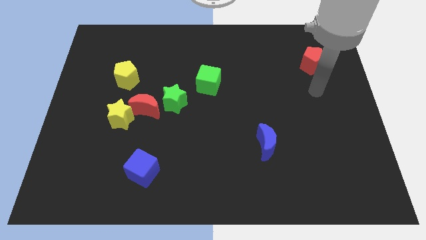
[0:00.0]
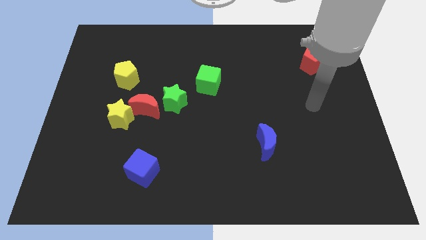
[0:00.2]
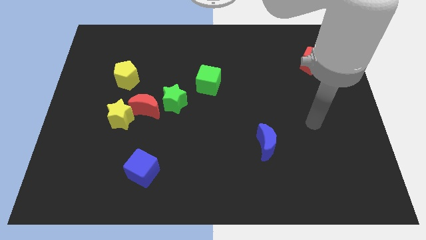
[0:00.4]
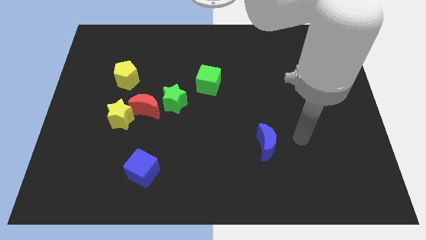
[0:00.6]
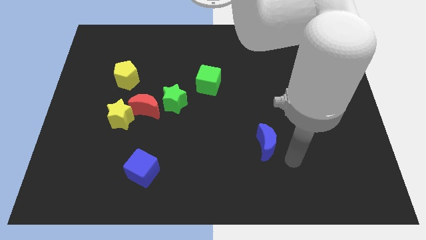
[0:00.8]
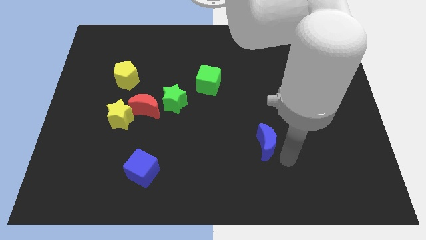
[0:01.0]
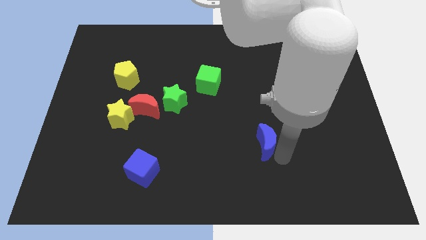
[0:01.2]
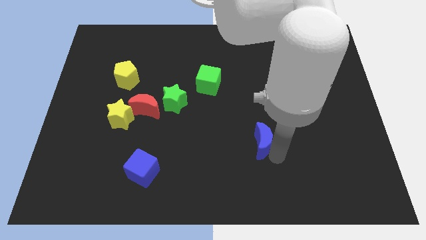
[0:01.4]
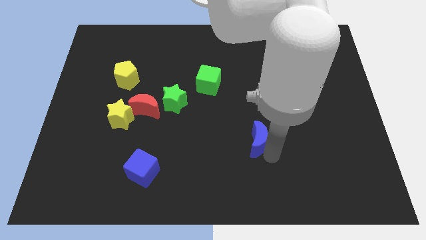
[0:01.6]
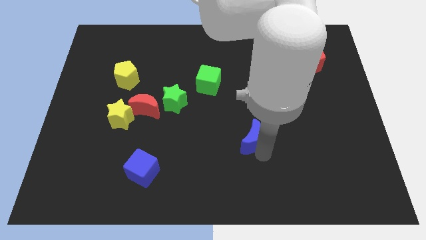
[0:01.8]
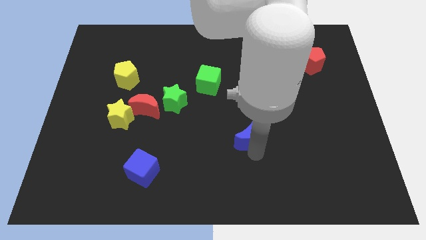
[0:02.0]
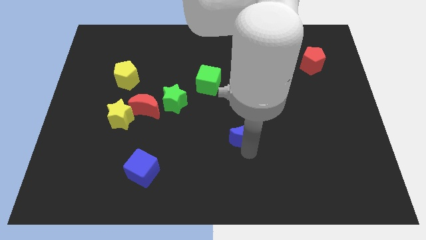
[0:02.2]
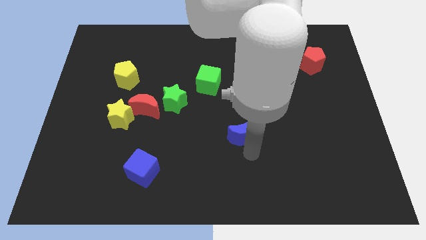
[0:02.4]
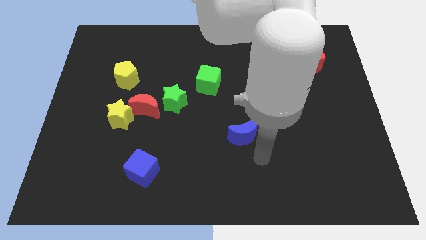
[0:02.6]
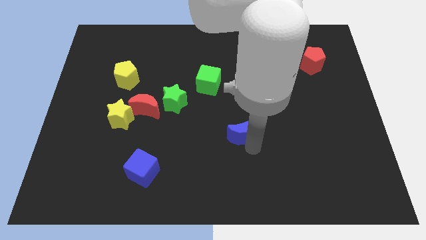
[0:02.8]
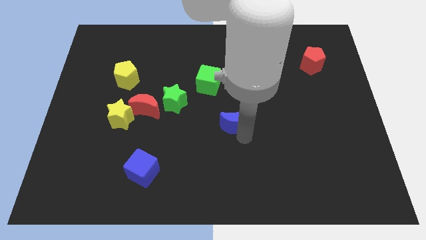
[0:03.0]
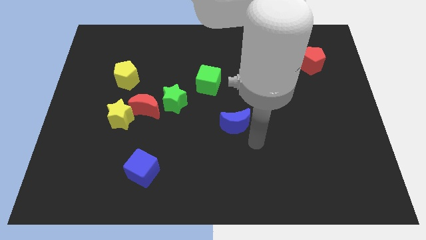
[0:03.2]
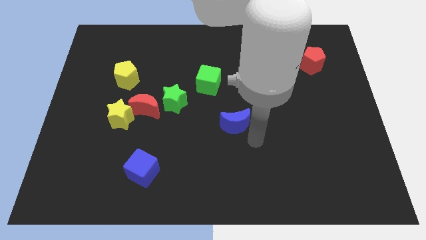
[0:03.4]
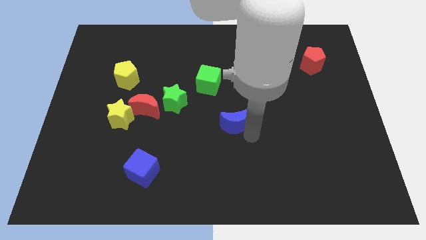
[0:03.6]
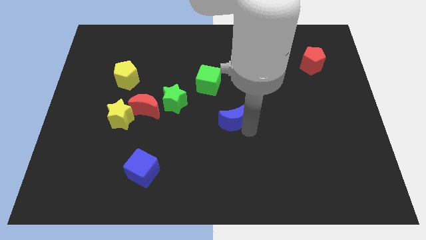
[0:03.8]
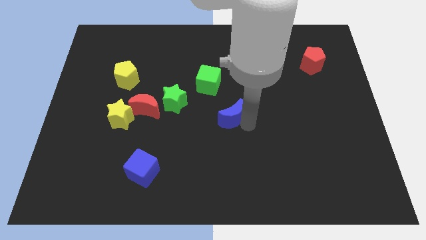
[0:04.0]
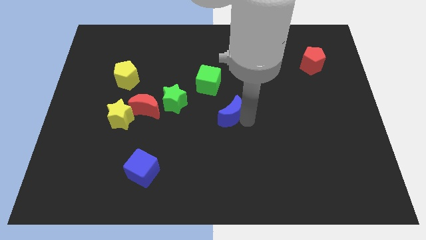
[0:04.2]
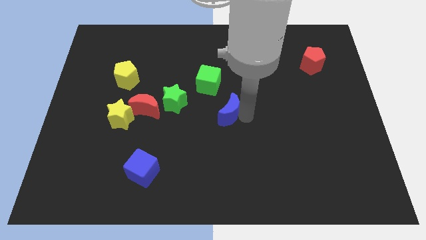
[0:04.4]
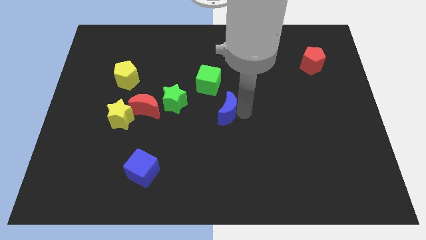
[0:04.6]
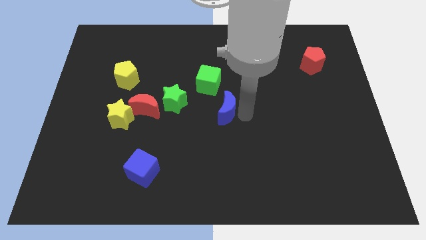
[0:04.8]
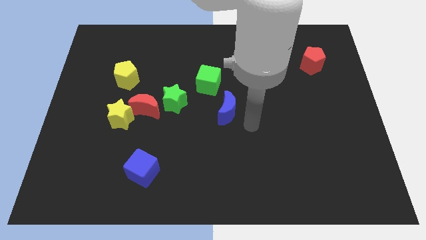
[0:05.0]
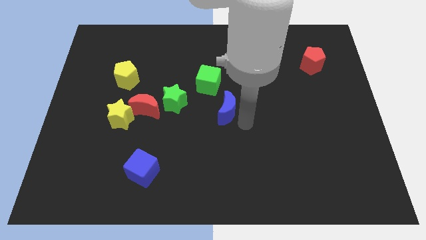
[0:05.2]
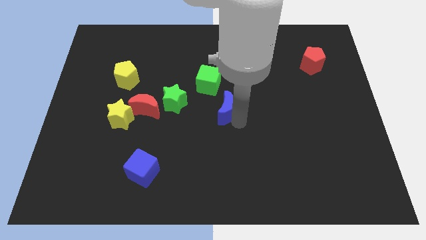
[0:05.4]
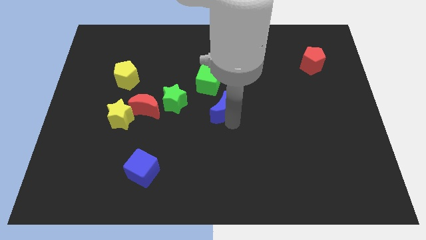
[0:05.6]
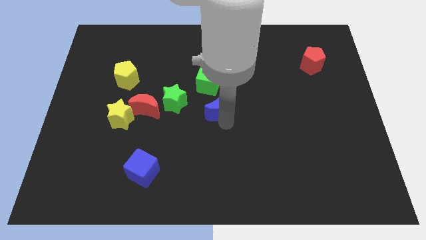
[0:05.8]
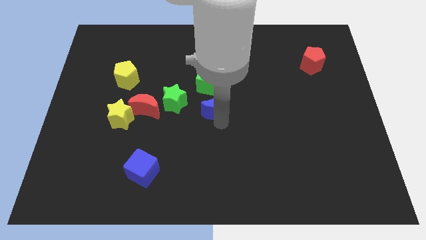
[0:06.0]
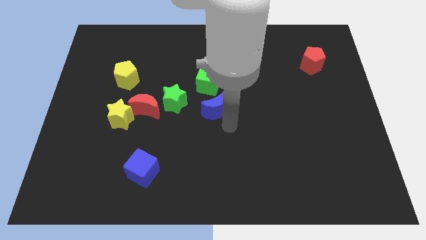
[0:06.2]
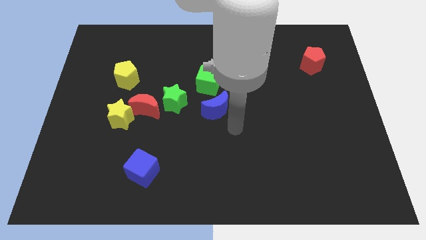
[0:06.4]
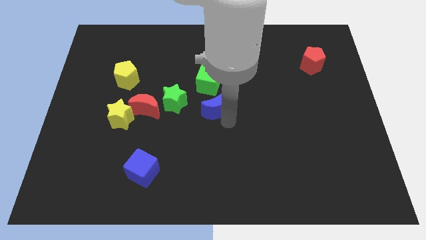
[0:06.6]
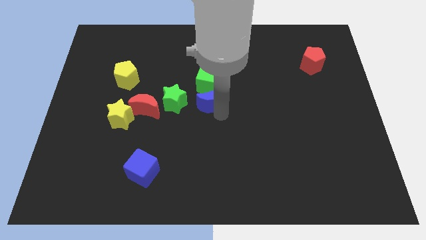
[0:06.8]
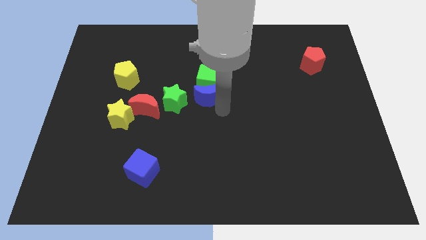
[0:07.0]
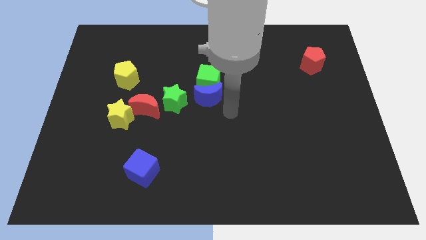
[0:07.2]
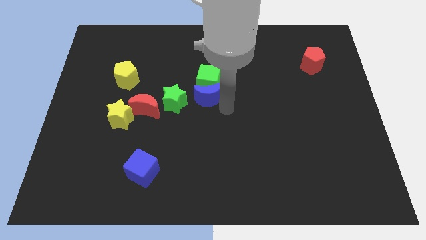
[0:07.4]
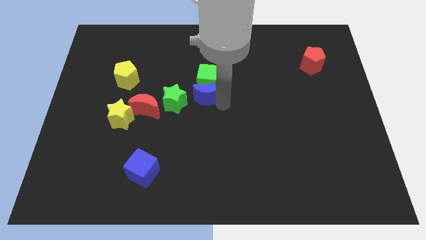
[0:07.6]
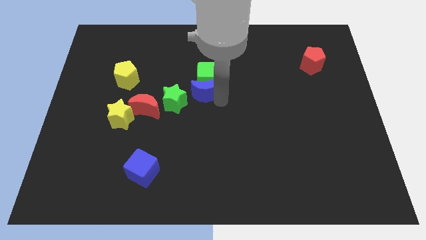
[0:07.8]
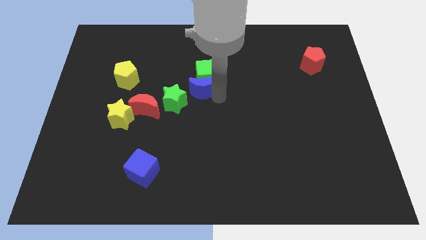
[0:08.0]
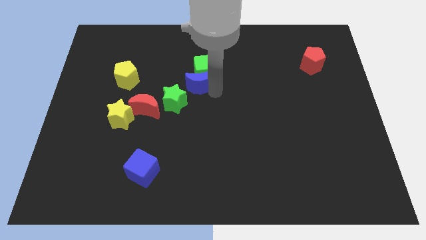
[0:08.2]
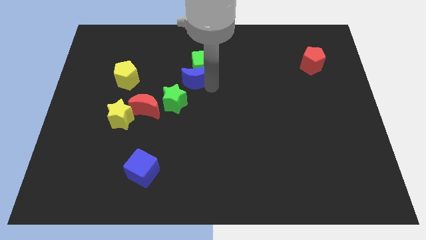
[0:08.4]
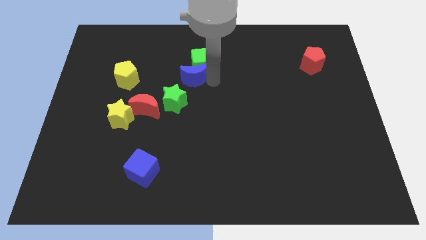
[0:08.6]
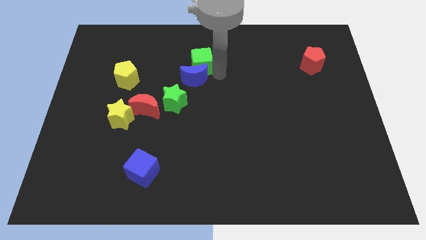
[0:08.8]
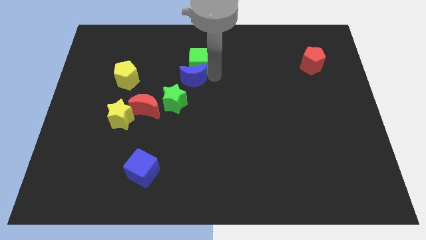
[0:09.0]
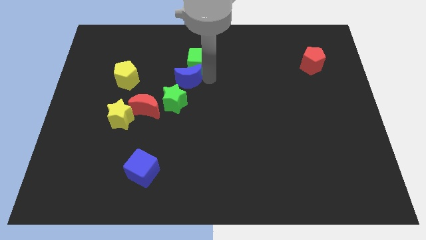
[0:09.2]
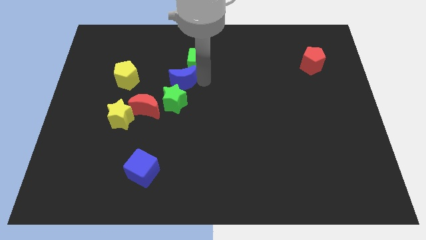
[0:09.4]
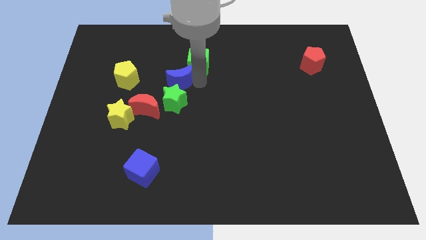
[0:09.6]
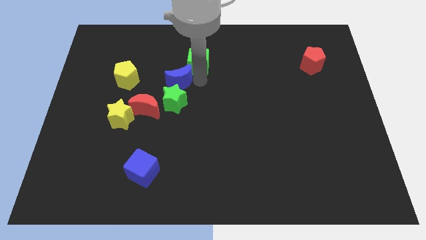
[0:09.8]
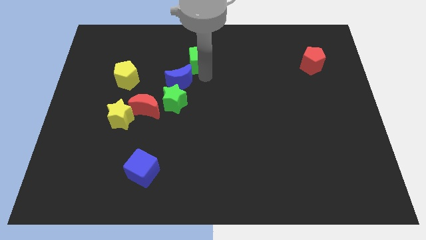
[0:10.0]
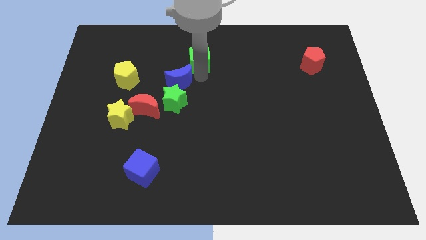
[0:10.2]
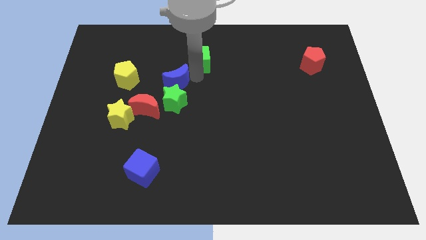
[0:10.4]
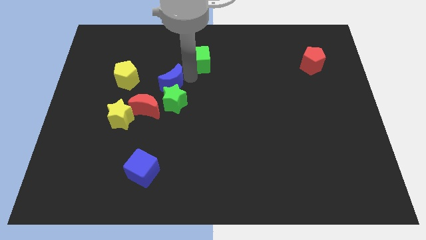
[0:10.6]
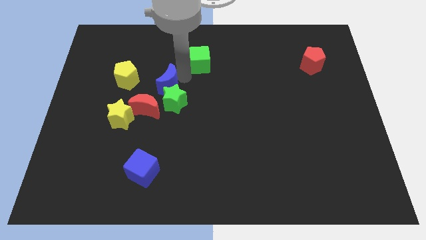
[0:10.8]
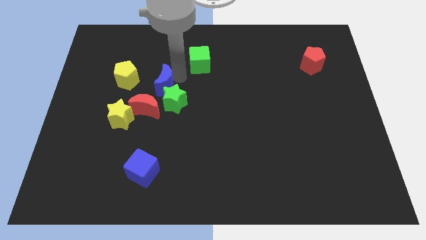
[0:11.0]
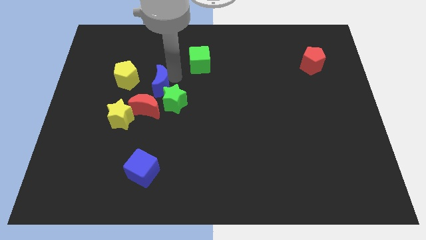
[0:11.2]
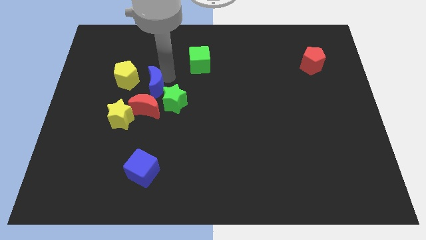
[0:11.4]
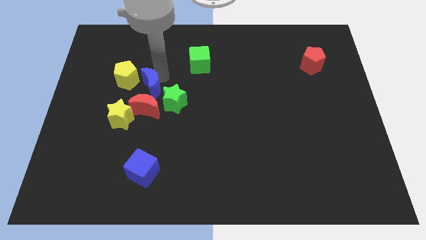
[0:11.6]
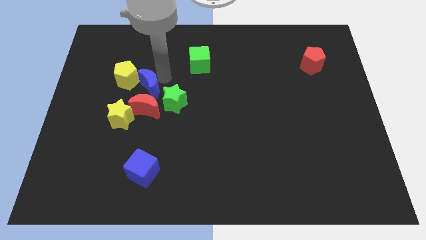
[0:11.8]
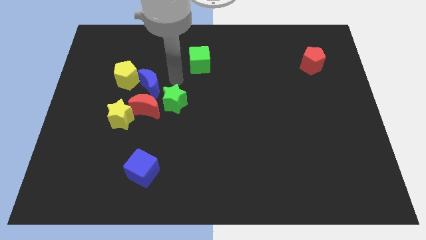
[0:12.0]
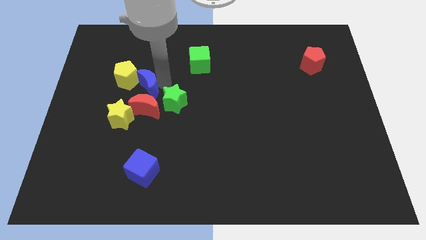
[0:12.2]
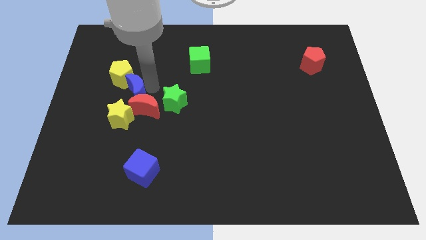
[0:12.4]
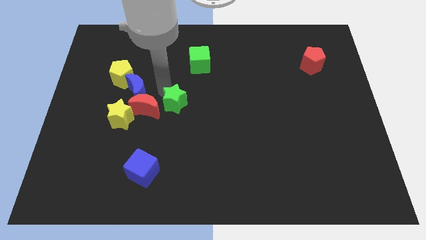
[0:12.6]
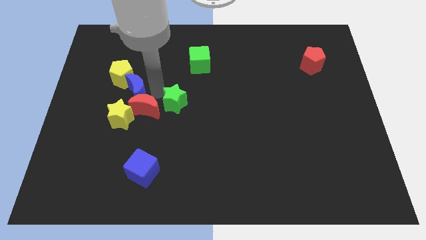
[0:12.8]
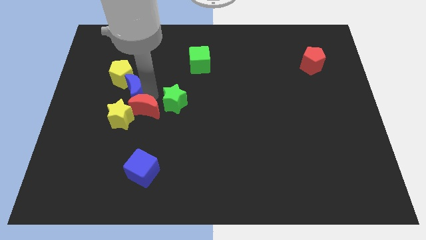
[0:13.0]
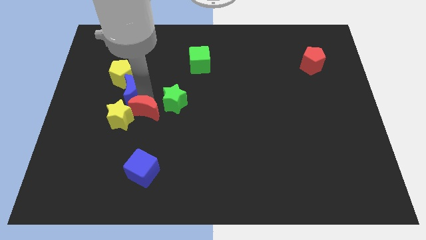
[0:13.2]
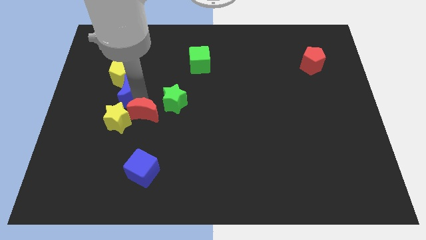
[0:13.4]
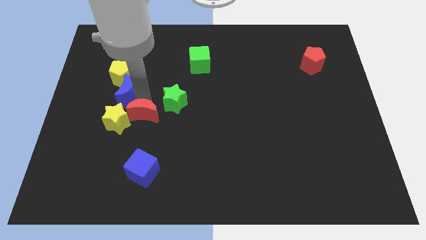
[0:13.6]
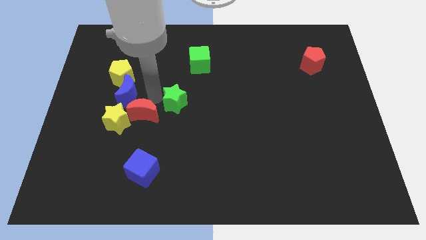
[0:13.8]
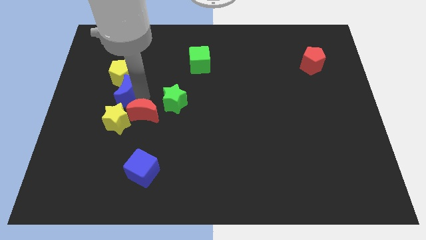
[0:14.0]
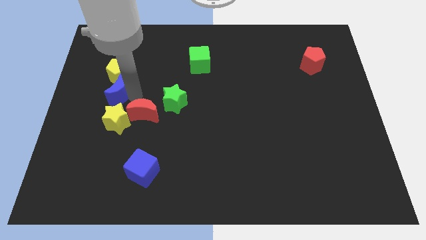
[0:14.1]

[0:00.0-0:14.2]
slide the blue moon to the bottom left side of the yellow pentagon
